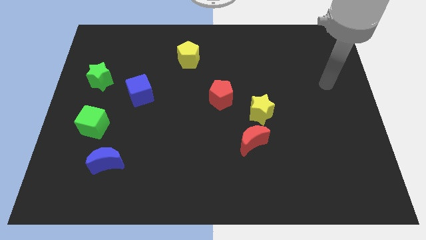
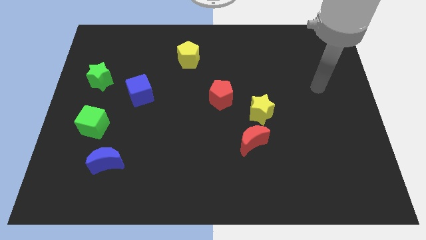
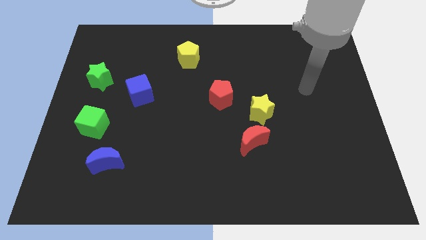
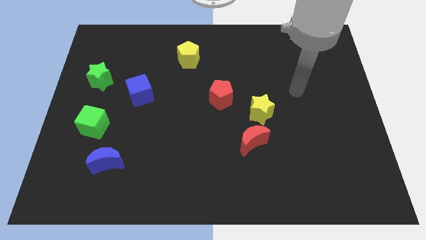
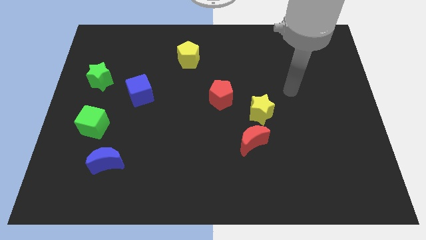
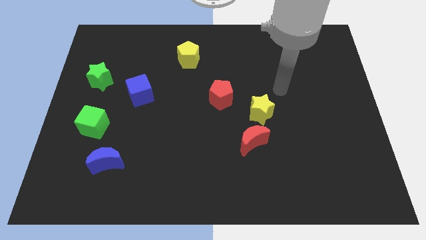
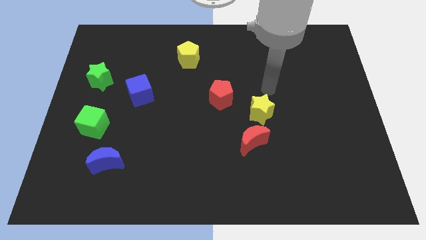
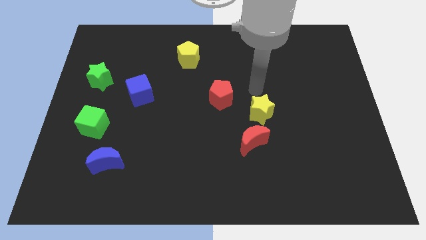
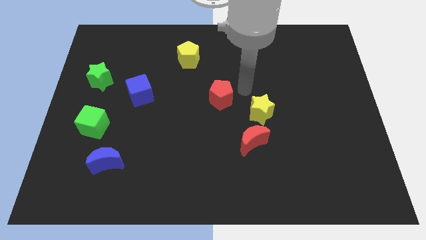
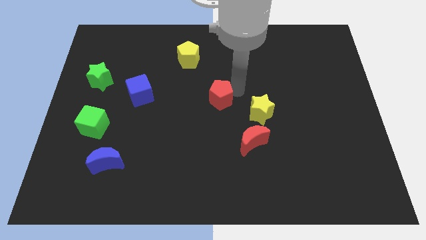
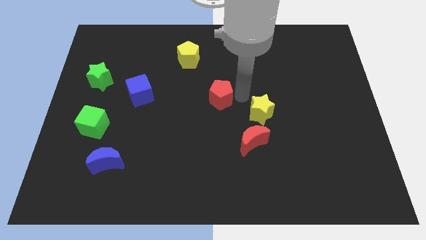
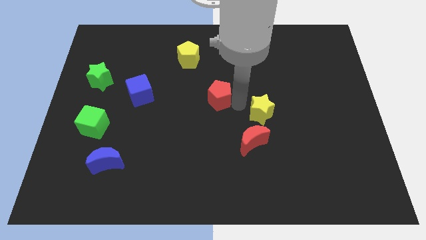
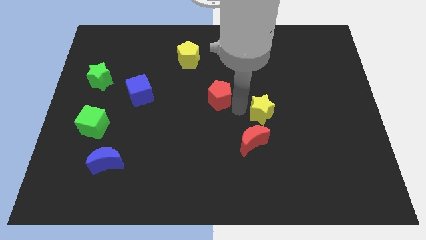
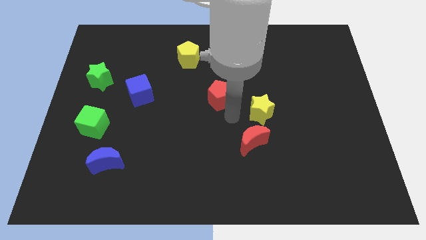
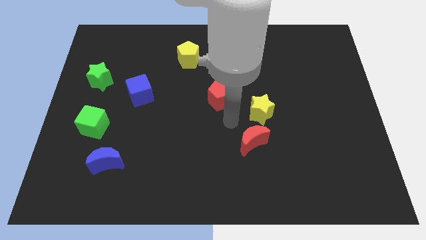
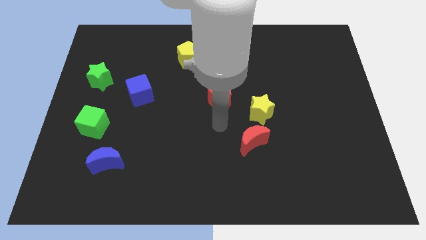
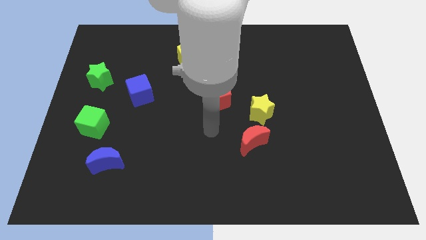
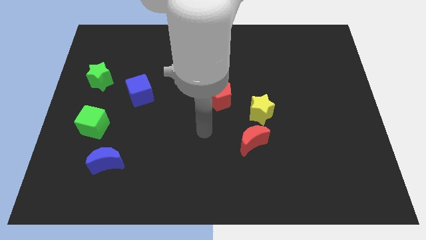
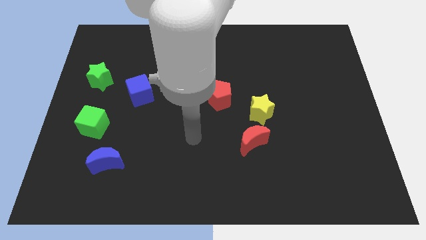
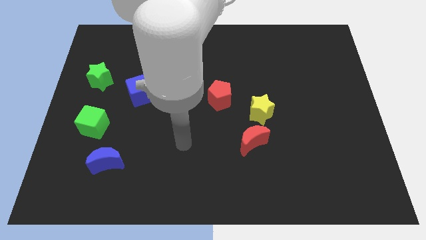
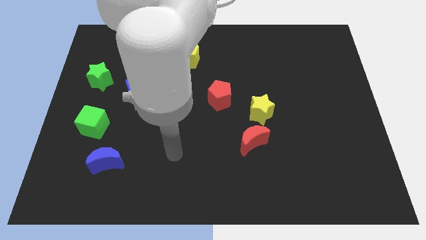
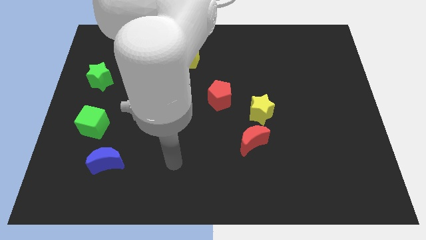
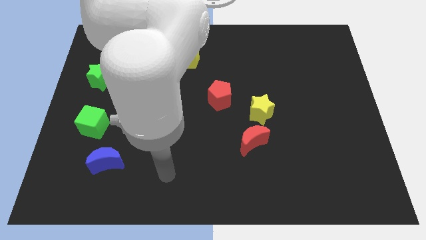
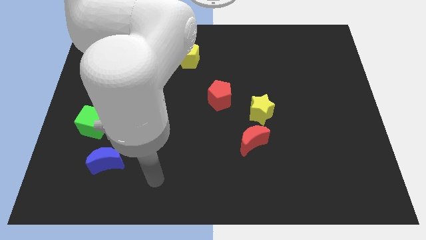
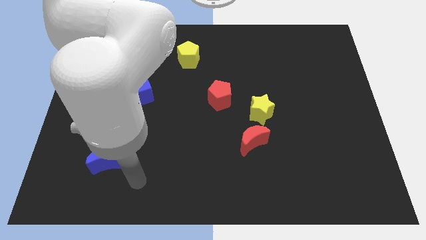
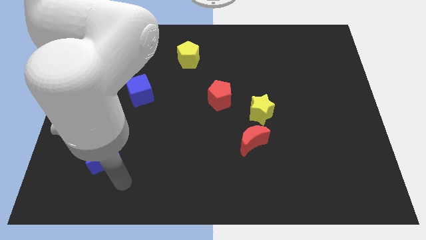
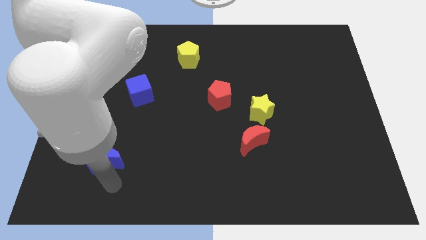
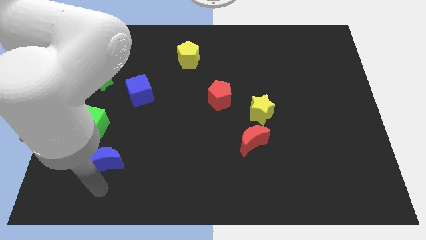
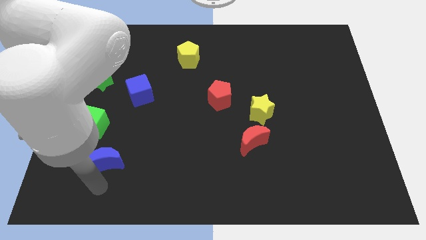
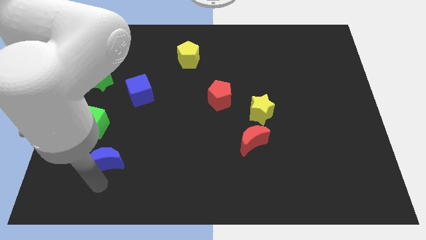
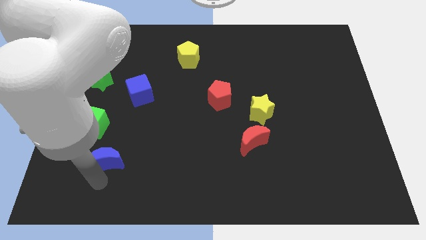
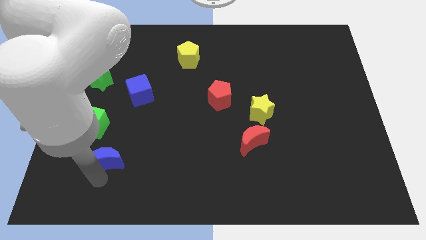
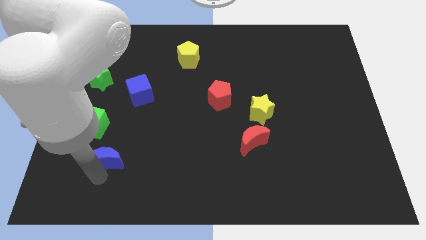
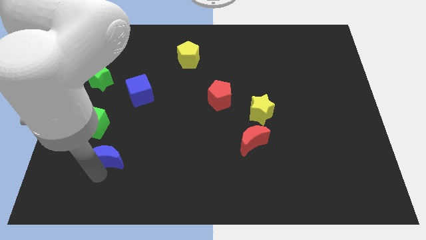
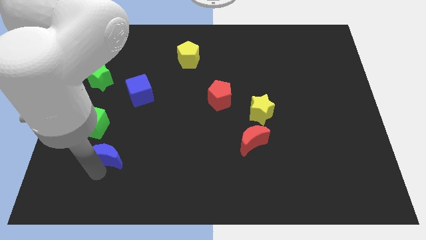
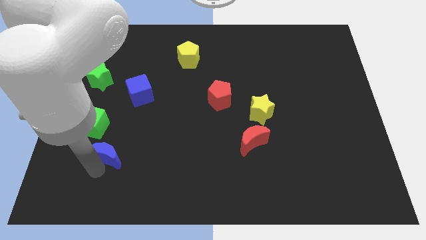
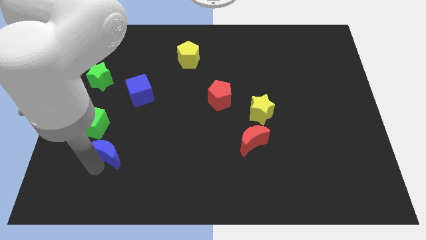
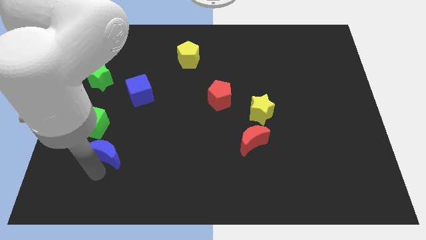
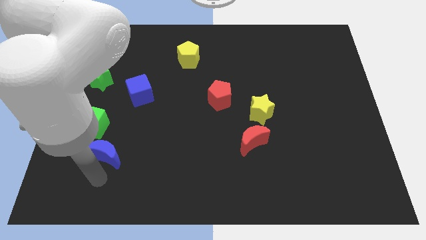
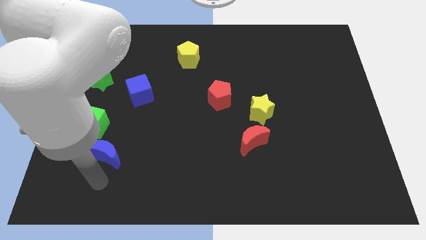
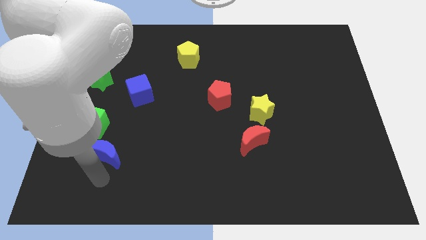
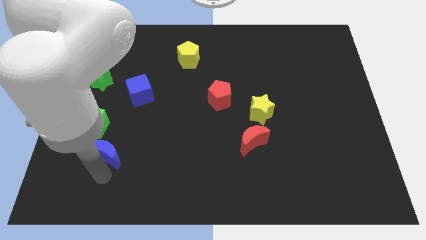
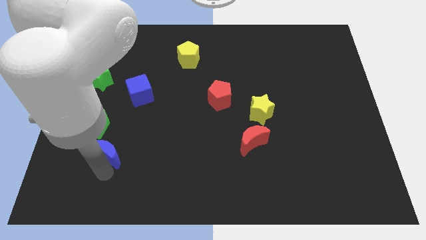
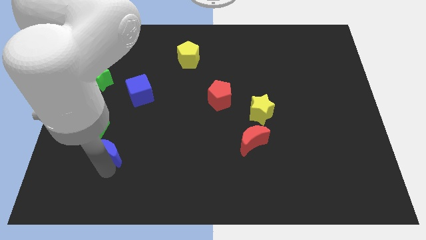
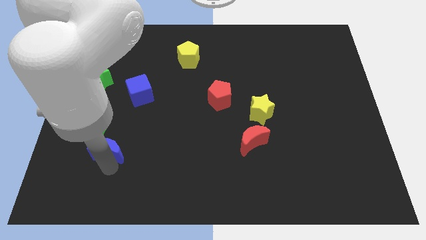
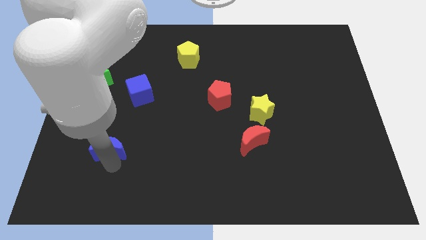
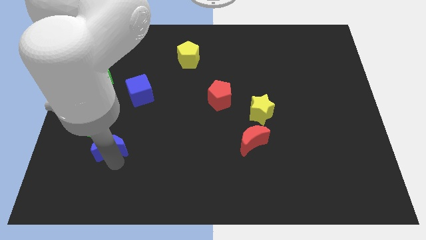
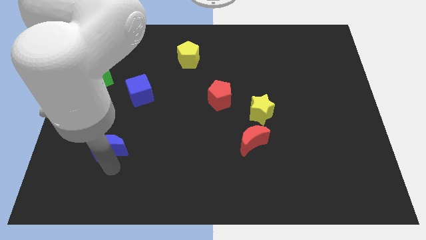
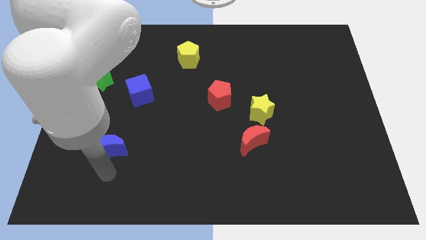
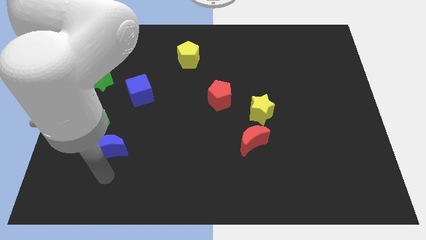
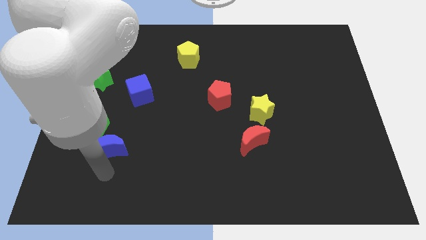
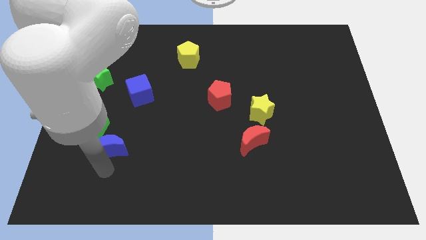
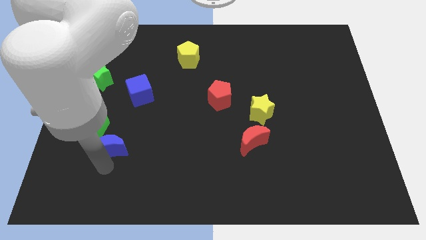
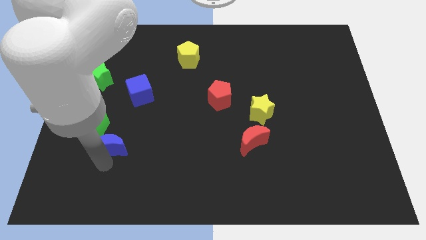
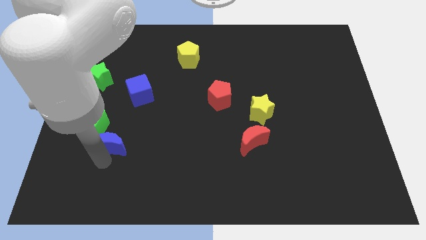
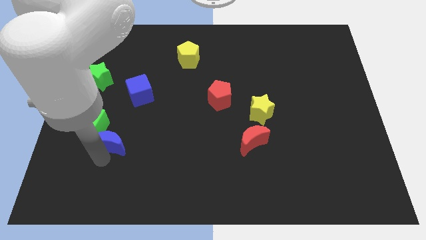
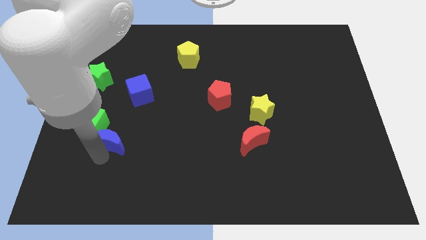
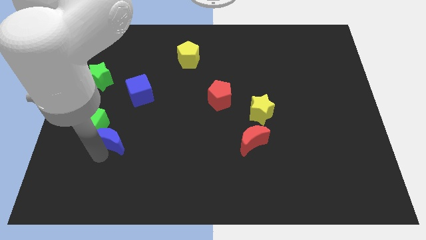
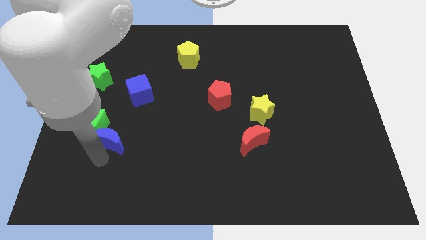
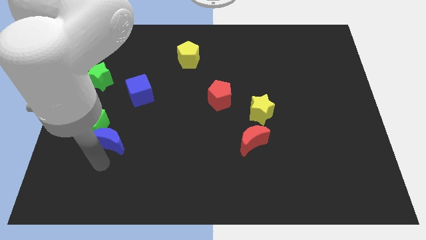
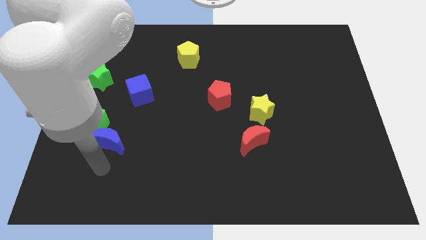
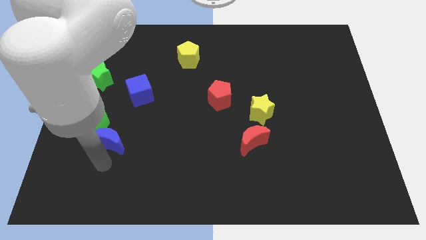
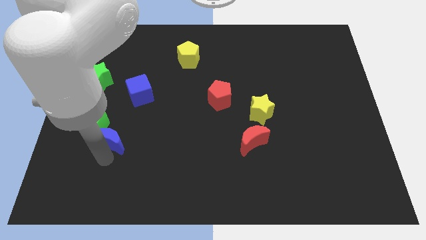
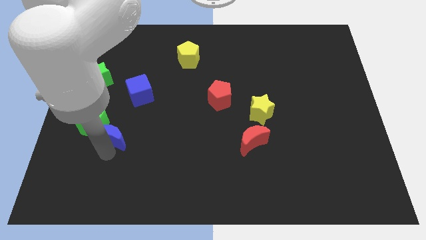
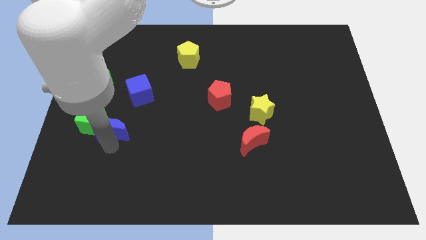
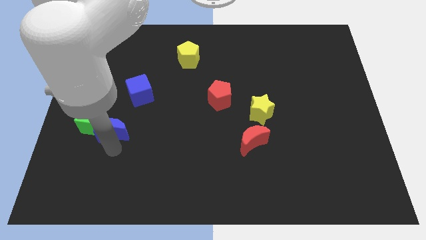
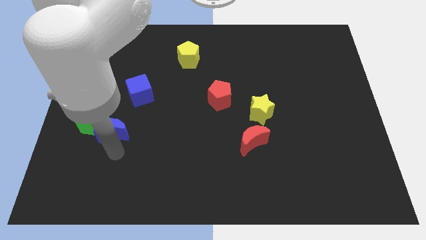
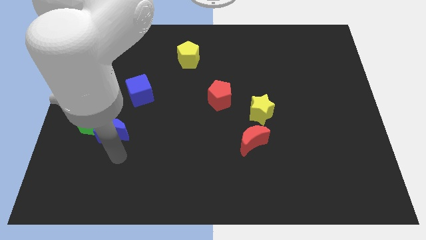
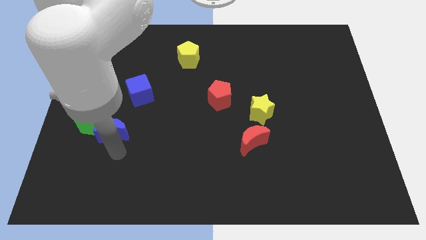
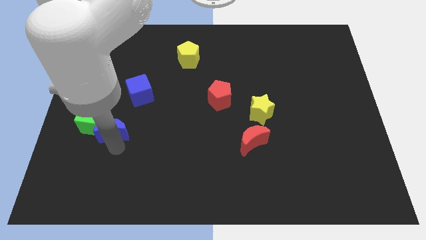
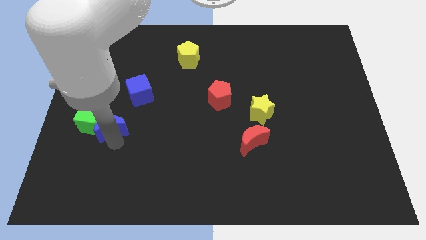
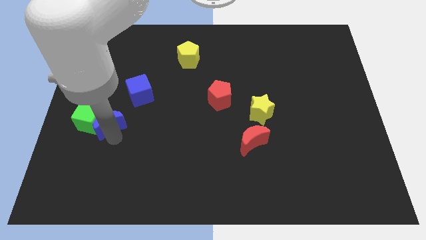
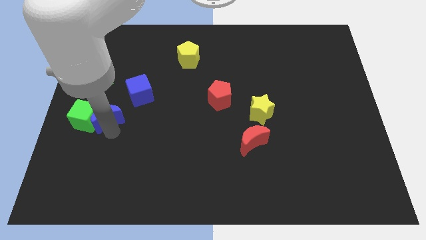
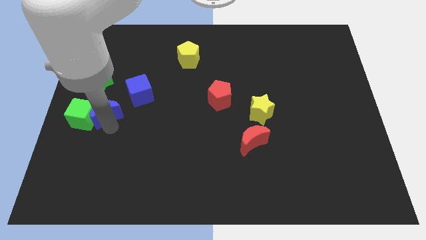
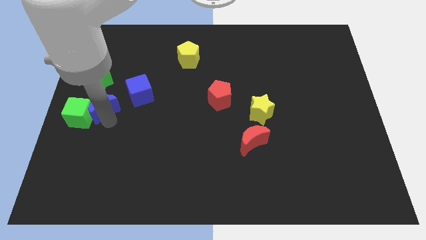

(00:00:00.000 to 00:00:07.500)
push the blue moon to the left side of the blue cube
